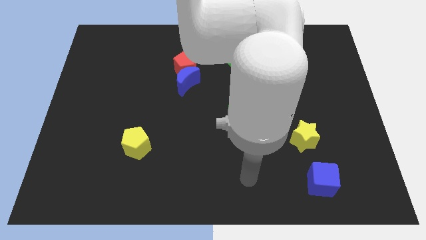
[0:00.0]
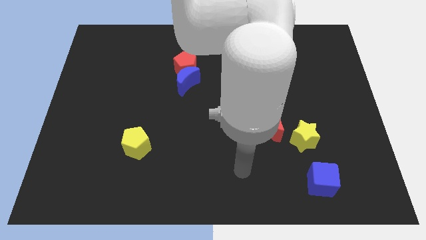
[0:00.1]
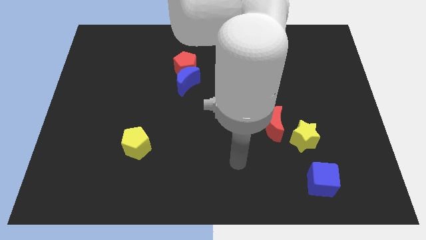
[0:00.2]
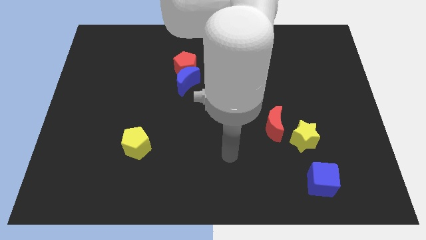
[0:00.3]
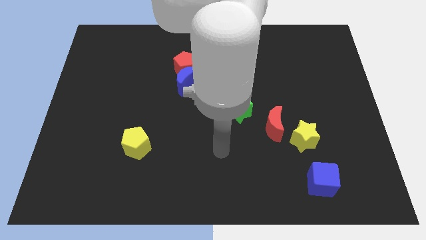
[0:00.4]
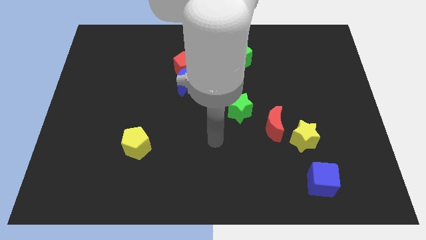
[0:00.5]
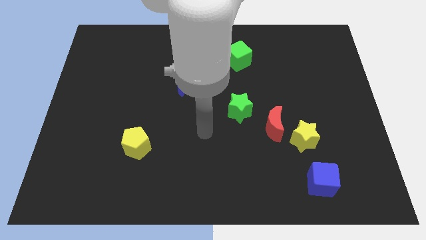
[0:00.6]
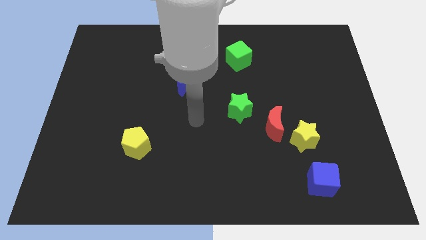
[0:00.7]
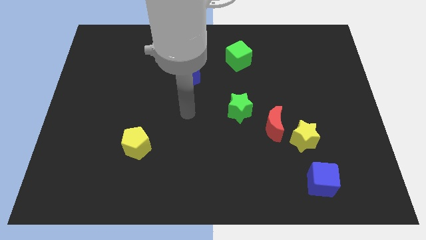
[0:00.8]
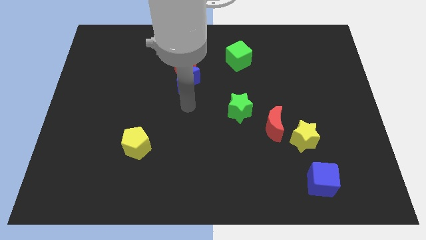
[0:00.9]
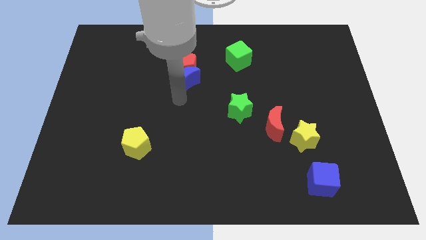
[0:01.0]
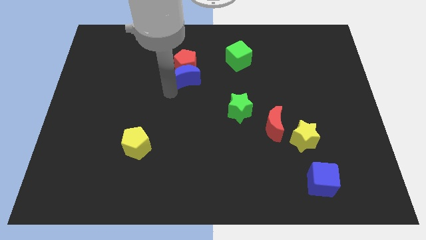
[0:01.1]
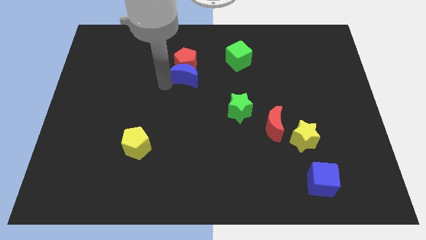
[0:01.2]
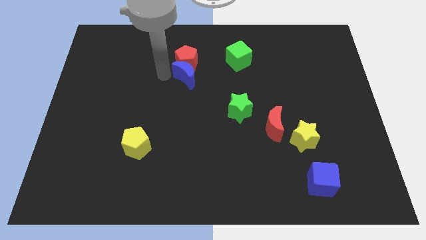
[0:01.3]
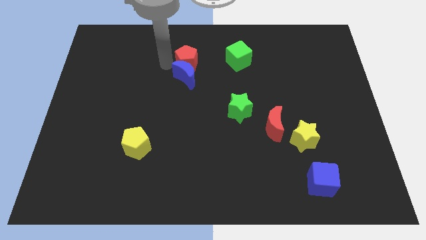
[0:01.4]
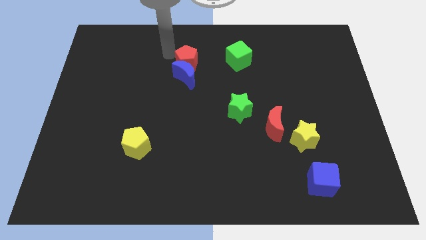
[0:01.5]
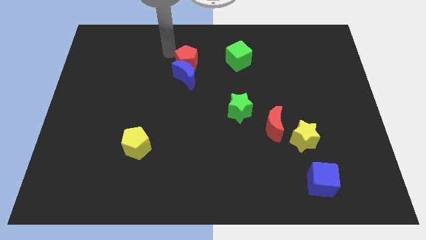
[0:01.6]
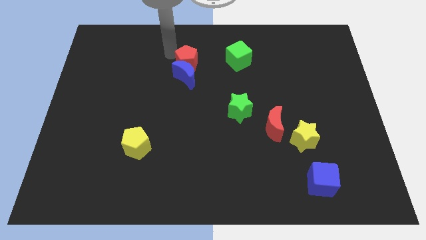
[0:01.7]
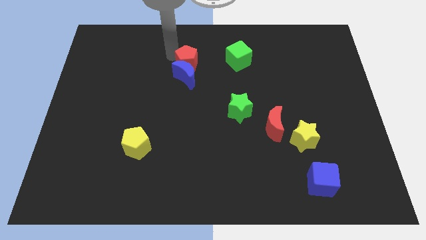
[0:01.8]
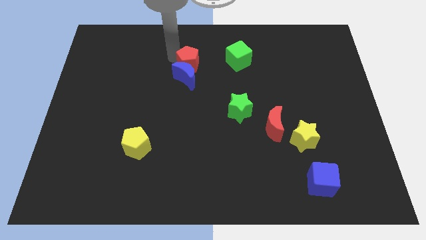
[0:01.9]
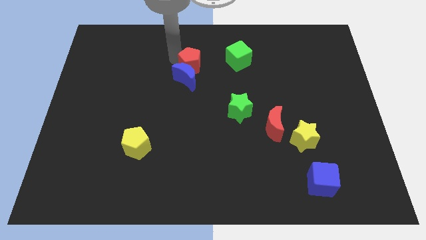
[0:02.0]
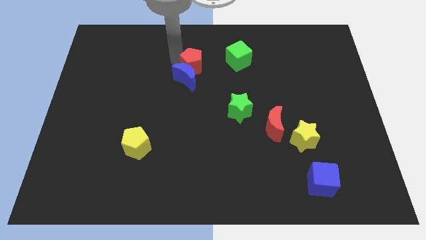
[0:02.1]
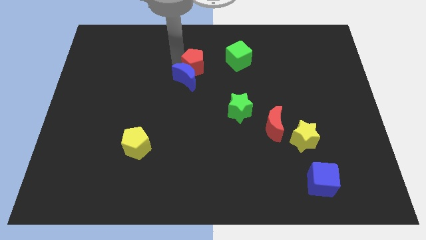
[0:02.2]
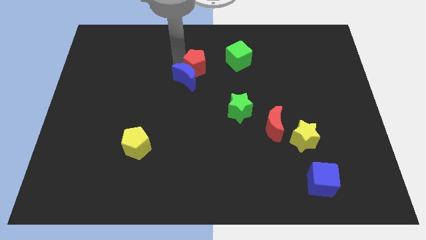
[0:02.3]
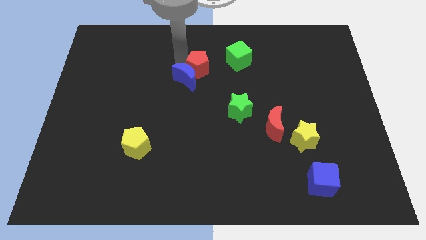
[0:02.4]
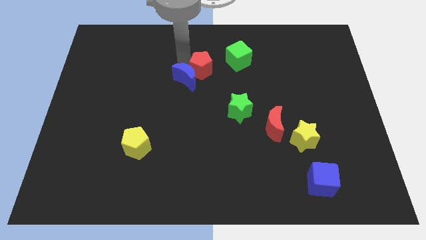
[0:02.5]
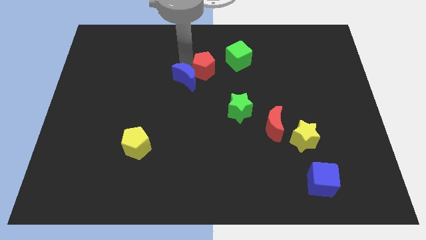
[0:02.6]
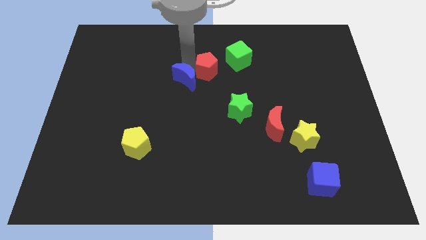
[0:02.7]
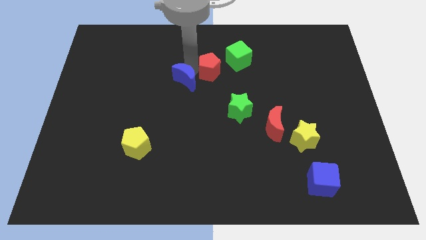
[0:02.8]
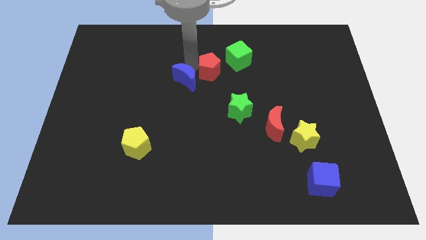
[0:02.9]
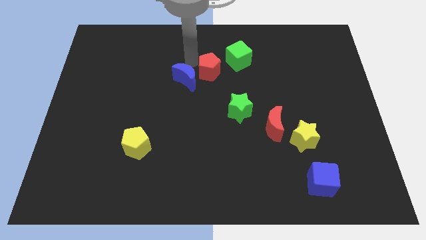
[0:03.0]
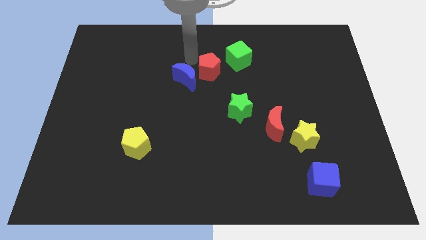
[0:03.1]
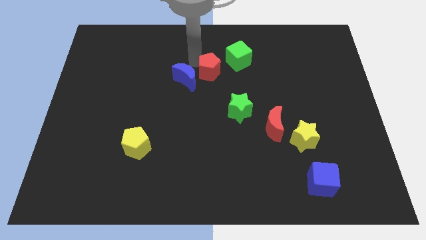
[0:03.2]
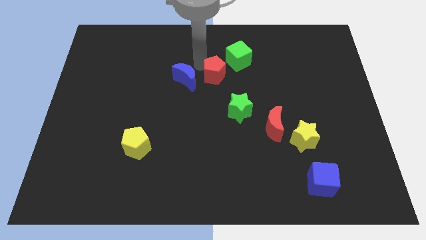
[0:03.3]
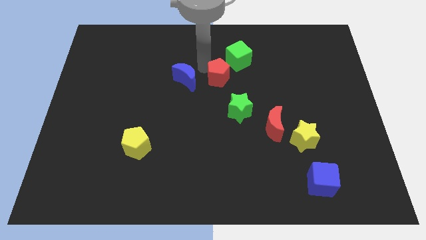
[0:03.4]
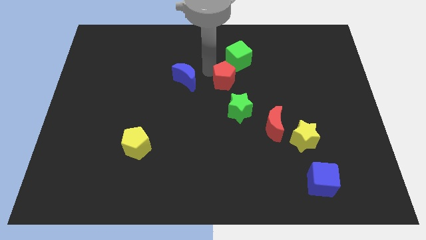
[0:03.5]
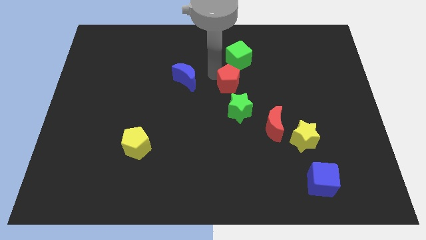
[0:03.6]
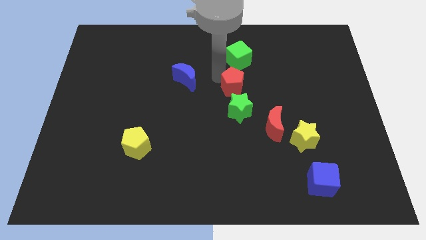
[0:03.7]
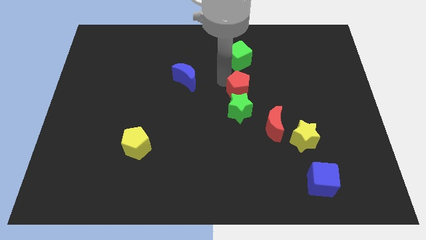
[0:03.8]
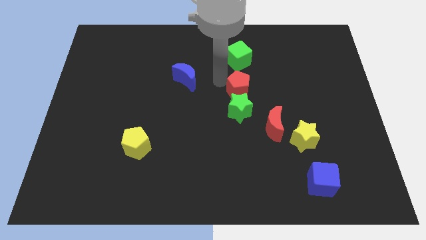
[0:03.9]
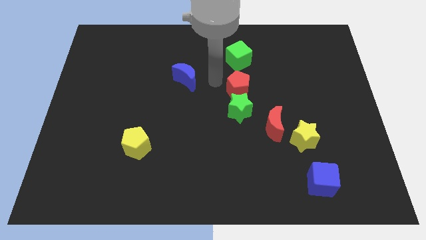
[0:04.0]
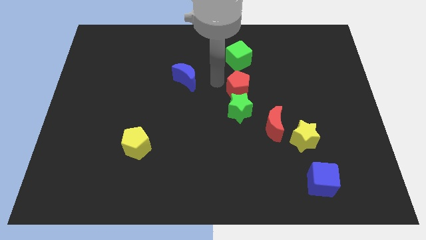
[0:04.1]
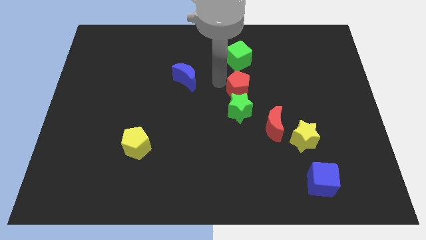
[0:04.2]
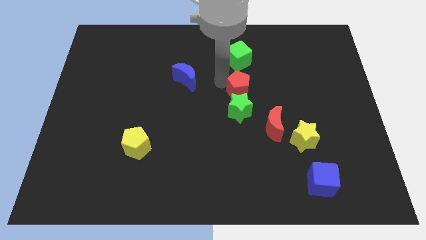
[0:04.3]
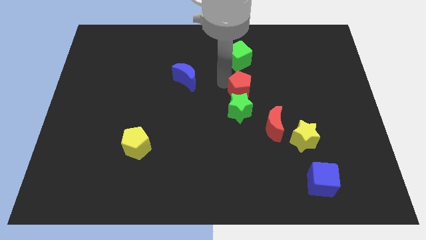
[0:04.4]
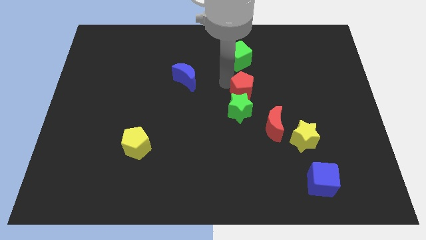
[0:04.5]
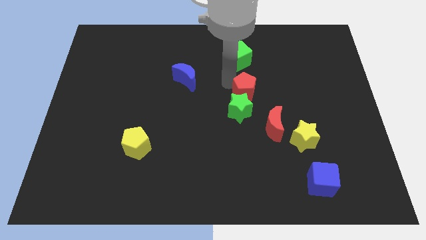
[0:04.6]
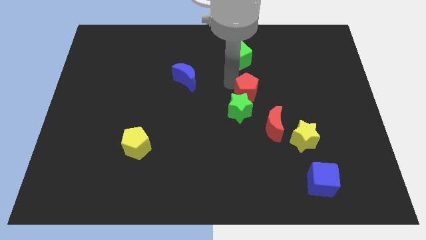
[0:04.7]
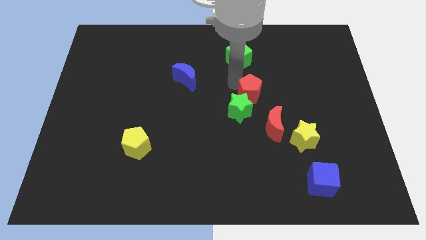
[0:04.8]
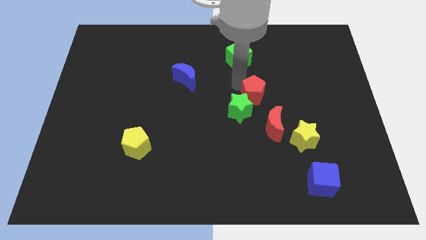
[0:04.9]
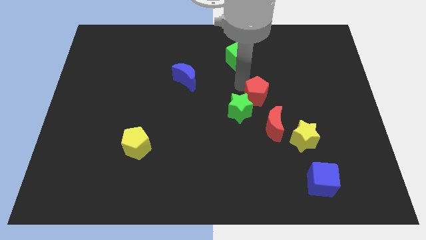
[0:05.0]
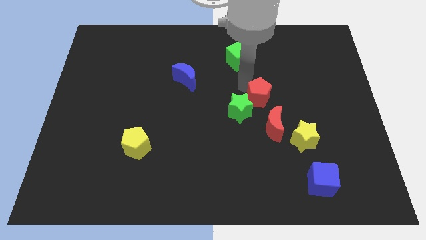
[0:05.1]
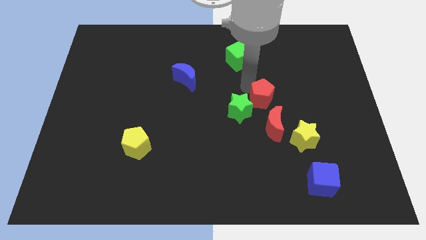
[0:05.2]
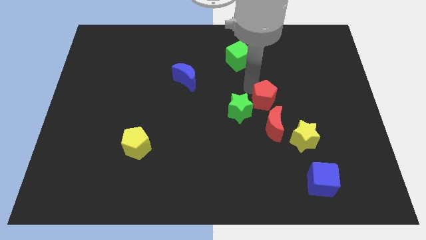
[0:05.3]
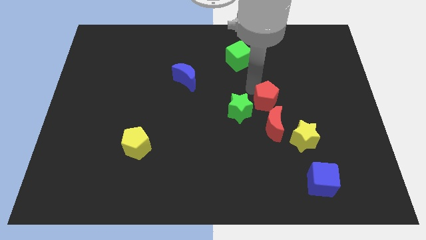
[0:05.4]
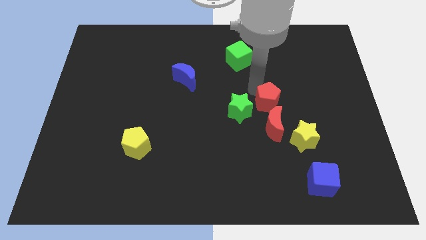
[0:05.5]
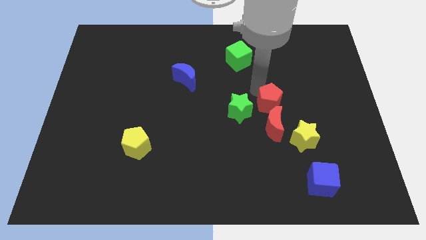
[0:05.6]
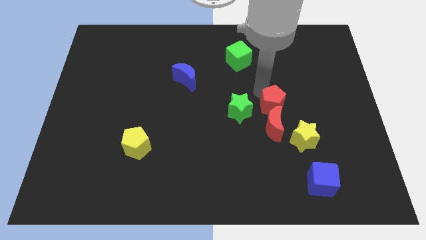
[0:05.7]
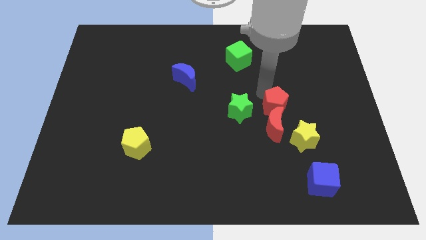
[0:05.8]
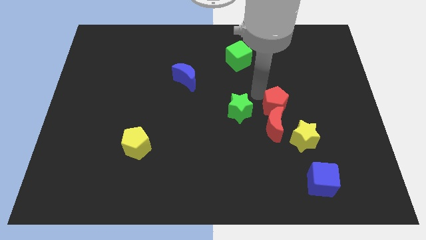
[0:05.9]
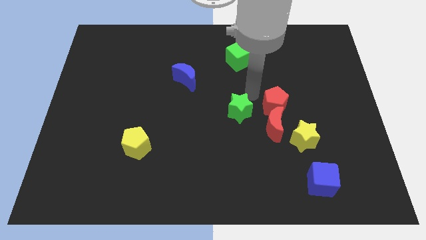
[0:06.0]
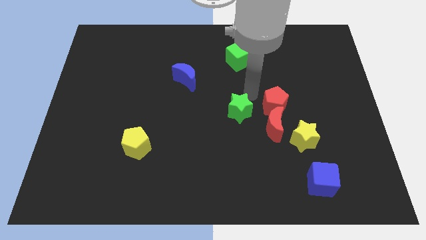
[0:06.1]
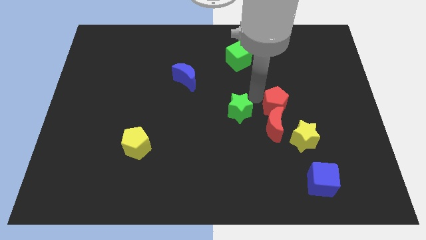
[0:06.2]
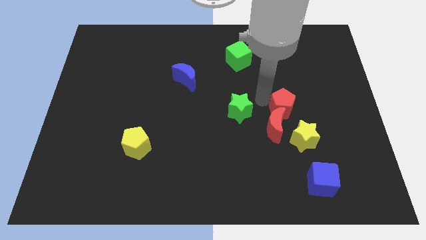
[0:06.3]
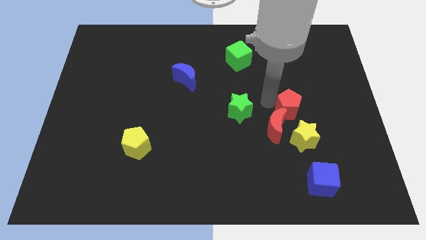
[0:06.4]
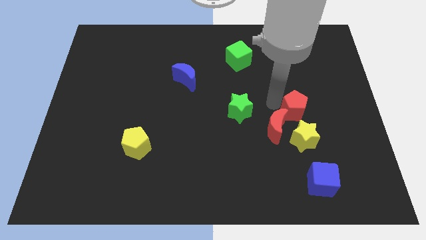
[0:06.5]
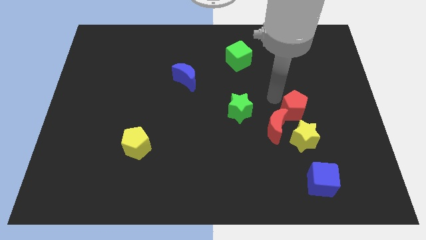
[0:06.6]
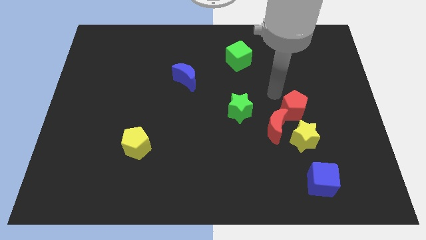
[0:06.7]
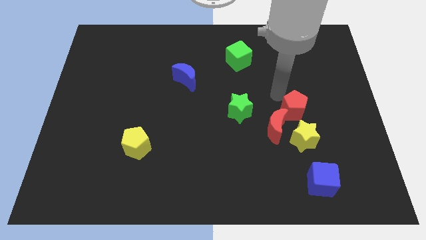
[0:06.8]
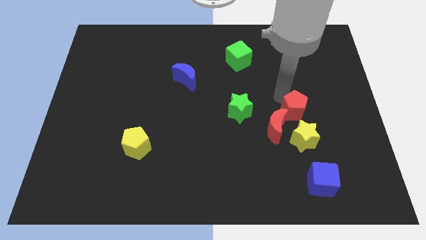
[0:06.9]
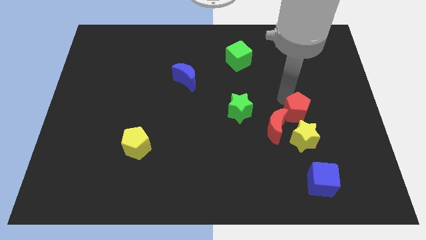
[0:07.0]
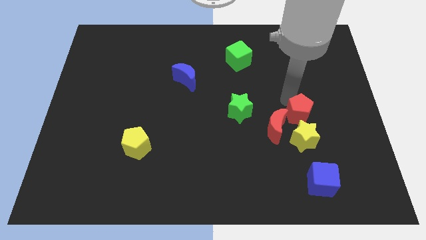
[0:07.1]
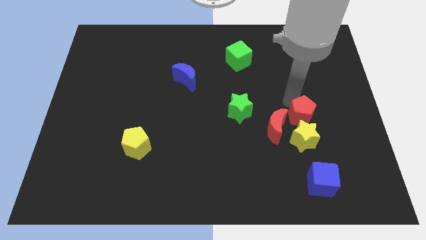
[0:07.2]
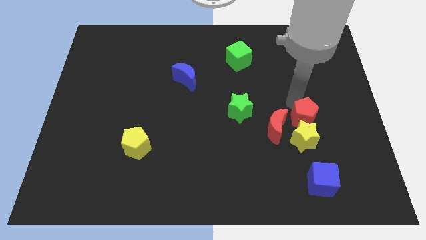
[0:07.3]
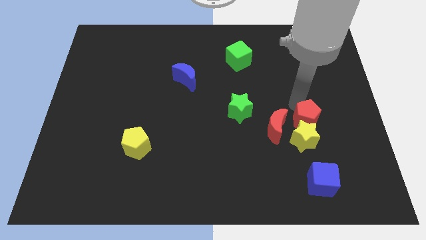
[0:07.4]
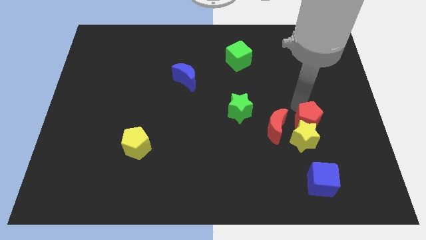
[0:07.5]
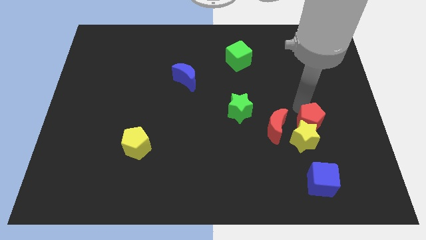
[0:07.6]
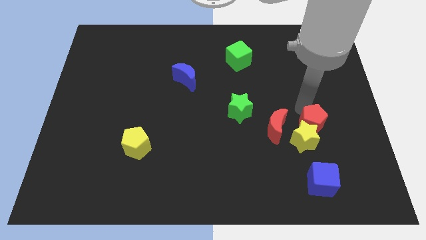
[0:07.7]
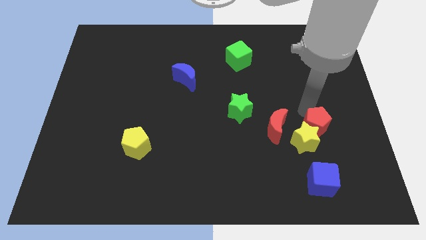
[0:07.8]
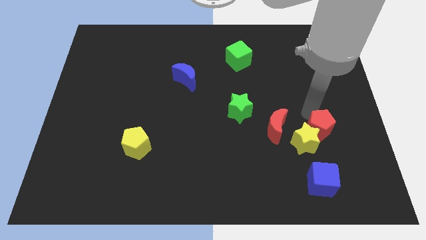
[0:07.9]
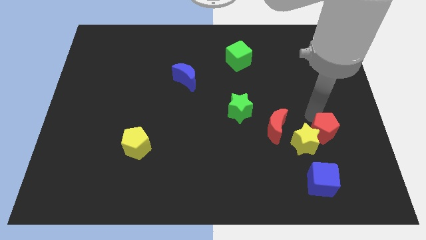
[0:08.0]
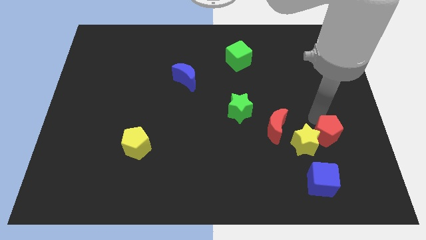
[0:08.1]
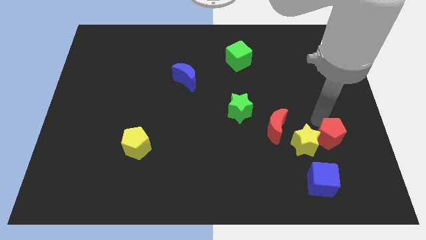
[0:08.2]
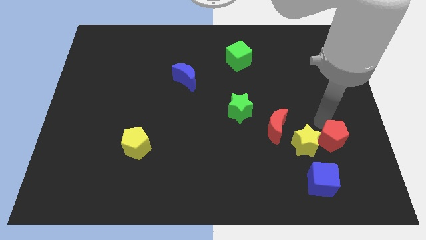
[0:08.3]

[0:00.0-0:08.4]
push the red pentagon to the bottom right side of the yellow star
